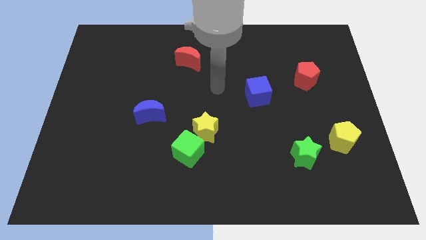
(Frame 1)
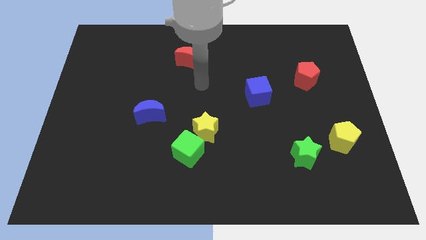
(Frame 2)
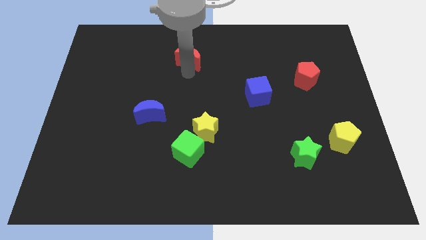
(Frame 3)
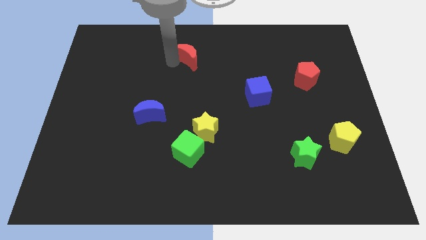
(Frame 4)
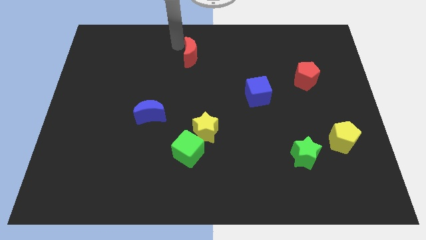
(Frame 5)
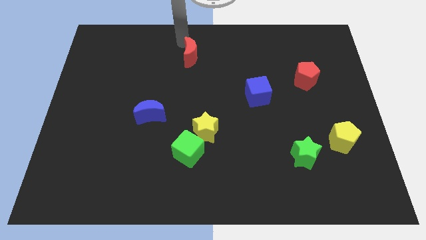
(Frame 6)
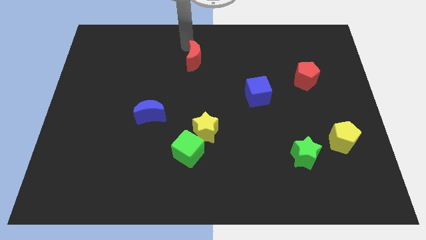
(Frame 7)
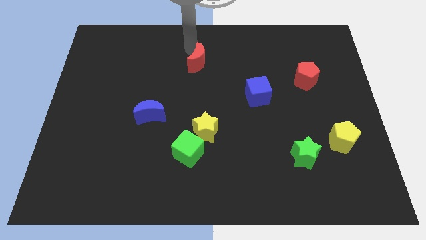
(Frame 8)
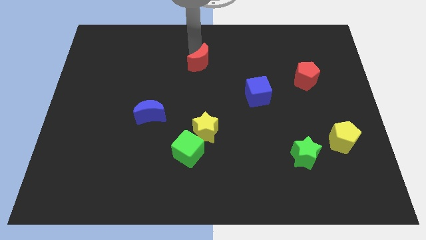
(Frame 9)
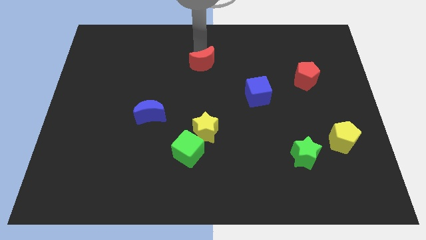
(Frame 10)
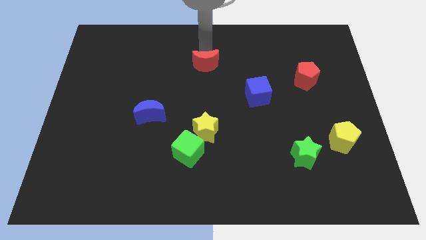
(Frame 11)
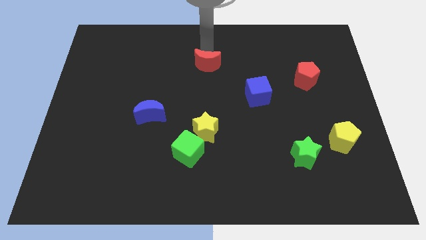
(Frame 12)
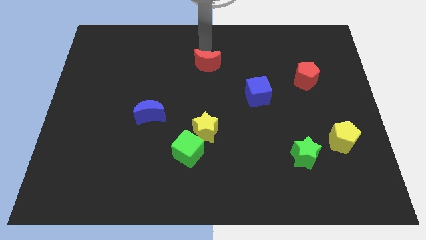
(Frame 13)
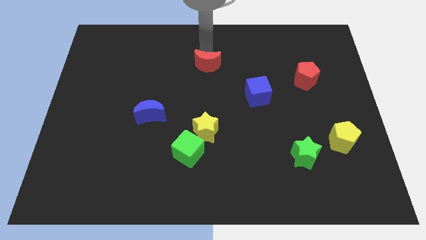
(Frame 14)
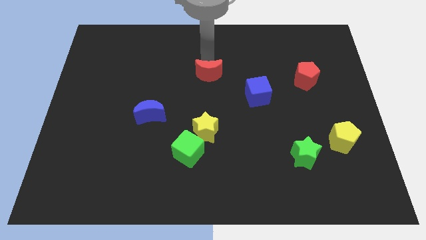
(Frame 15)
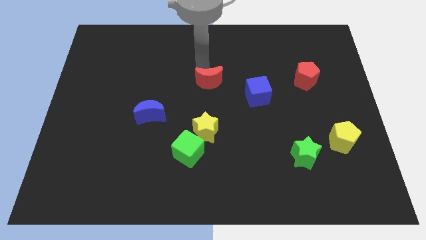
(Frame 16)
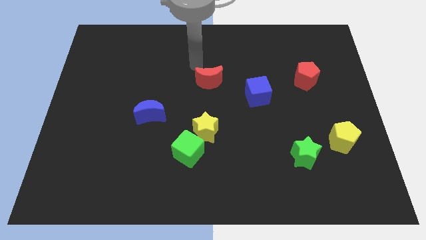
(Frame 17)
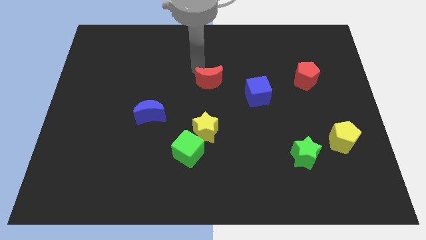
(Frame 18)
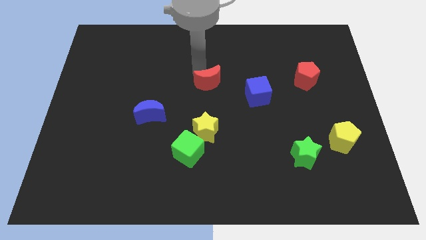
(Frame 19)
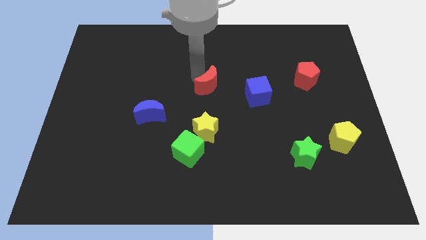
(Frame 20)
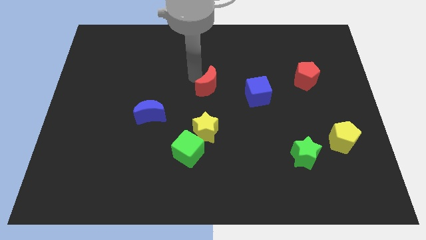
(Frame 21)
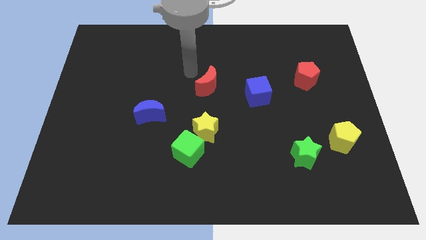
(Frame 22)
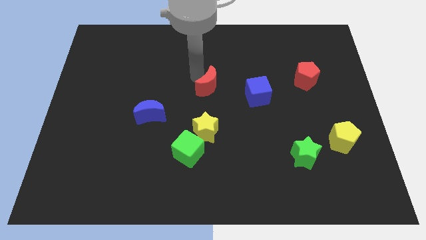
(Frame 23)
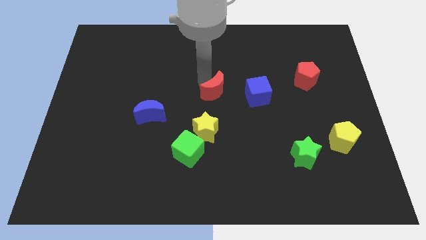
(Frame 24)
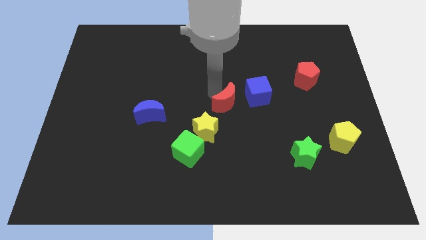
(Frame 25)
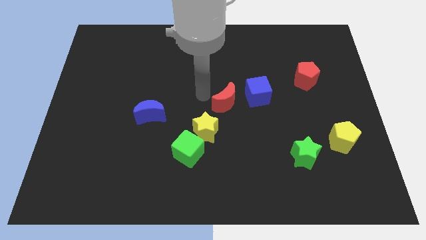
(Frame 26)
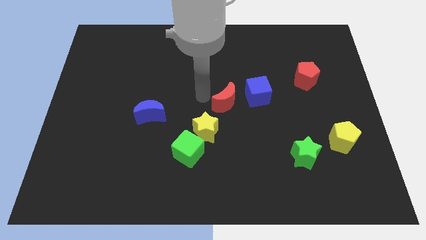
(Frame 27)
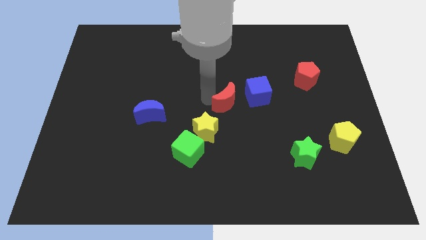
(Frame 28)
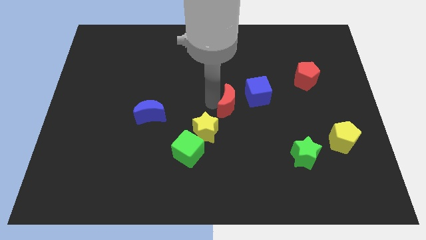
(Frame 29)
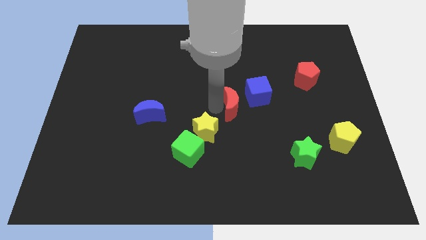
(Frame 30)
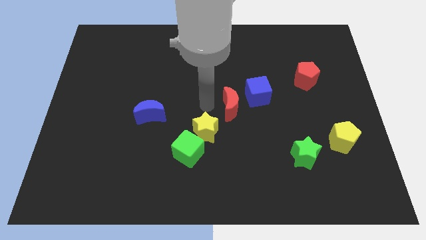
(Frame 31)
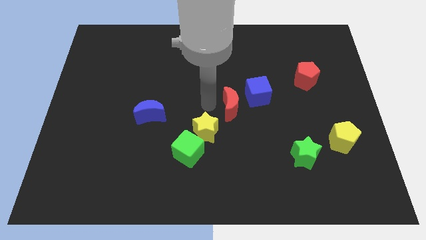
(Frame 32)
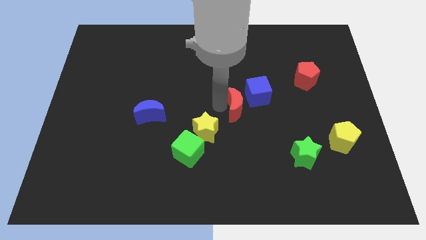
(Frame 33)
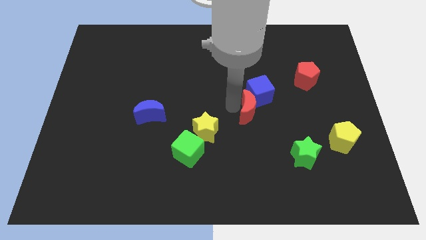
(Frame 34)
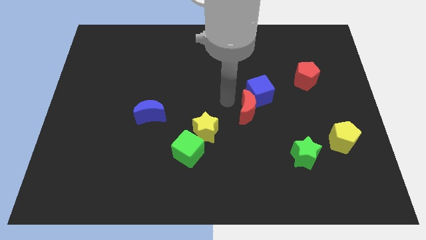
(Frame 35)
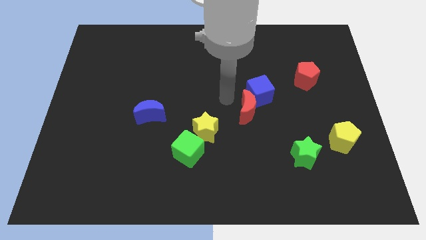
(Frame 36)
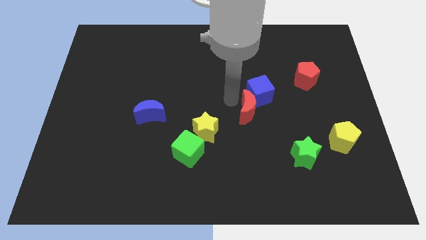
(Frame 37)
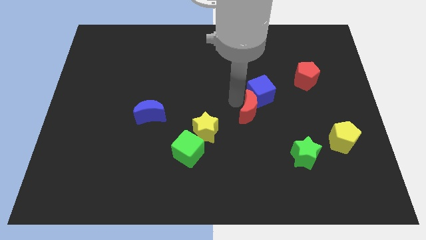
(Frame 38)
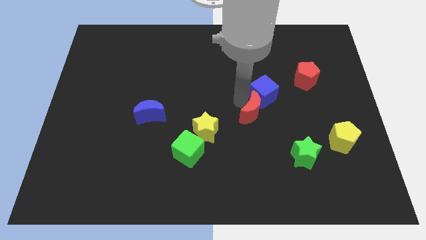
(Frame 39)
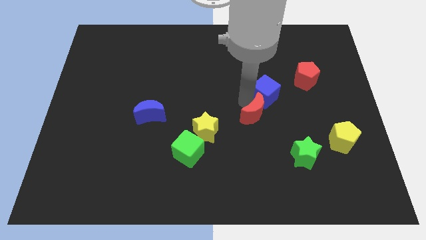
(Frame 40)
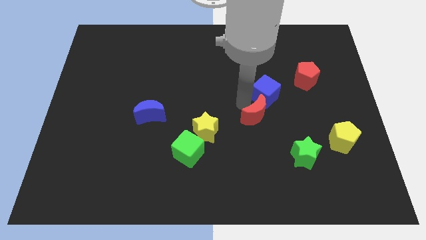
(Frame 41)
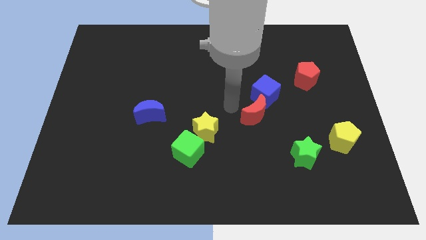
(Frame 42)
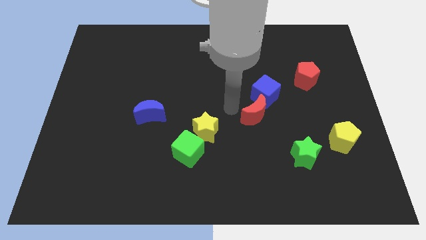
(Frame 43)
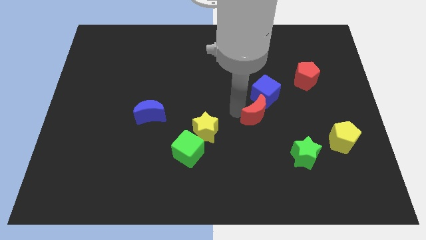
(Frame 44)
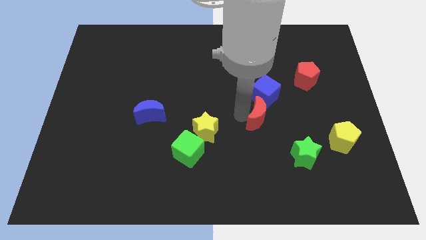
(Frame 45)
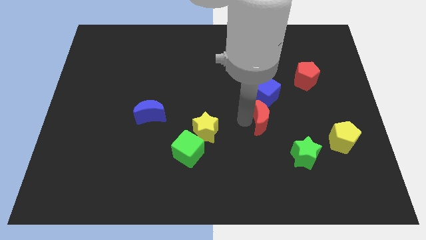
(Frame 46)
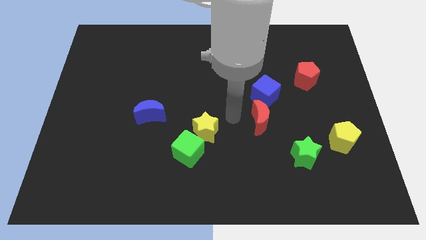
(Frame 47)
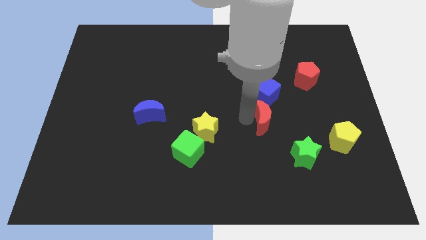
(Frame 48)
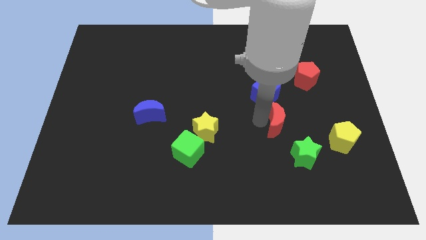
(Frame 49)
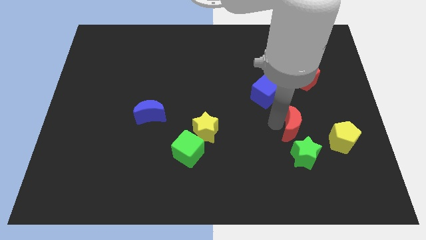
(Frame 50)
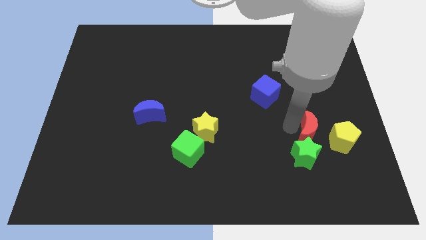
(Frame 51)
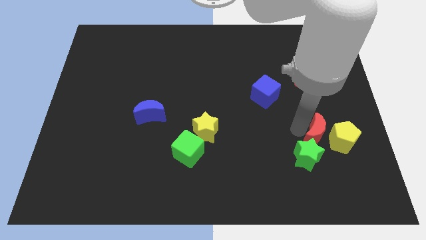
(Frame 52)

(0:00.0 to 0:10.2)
slide the red moon next to the yellow pentagon

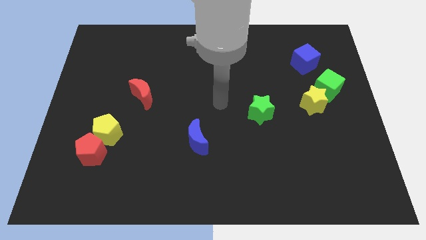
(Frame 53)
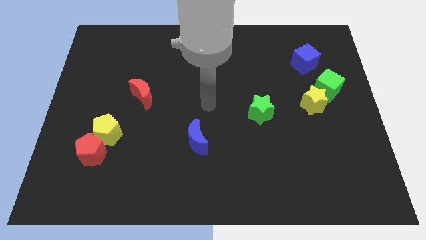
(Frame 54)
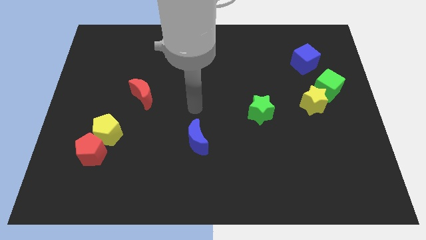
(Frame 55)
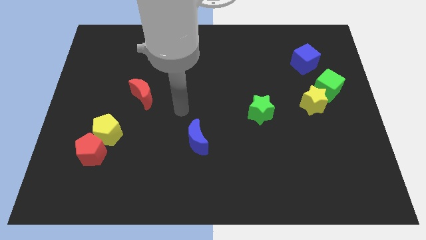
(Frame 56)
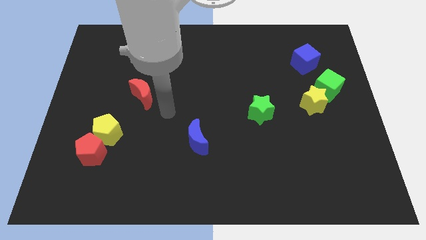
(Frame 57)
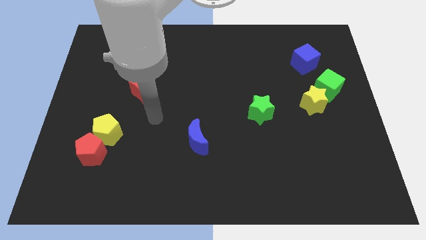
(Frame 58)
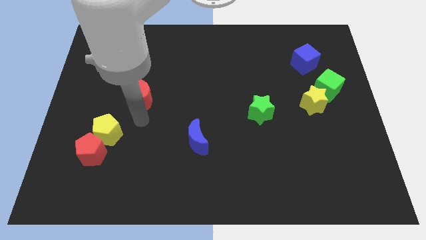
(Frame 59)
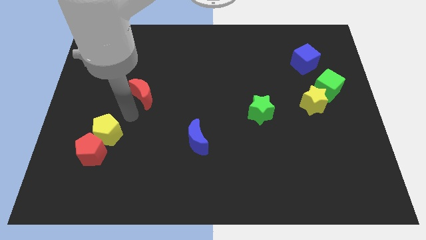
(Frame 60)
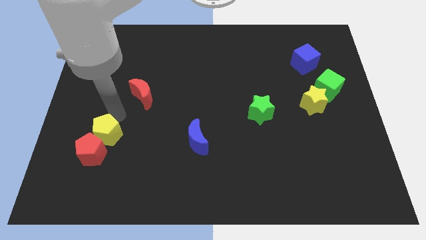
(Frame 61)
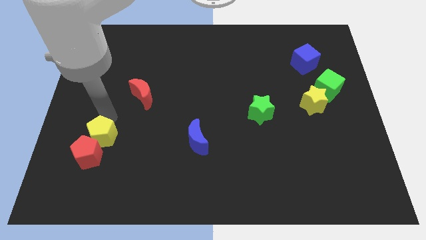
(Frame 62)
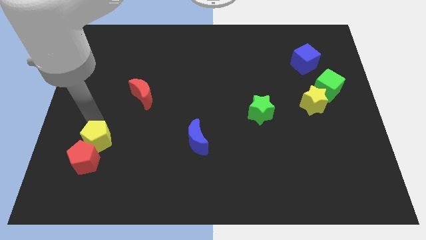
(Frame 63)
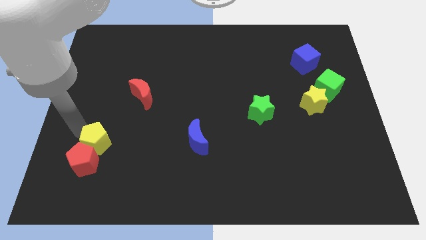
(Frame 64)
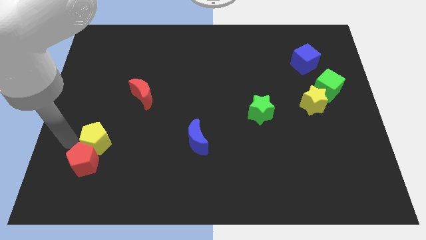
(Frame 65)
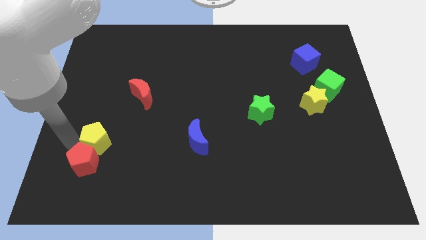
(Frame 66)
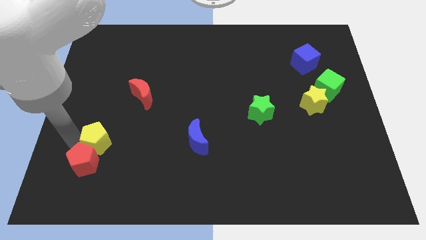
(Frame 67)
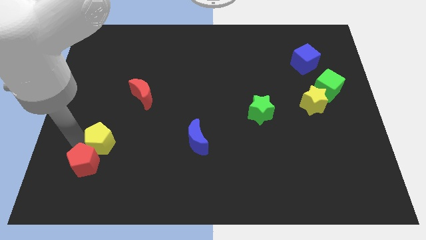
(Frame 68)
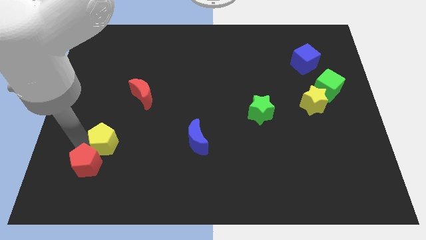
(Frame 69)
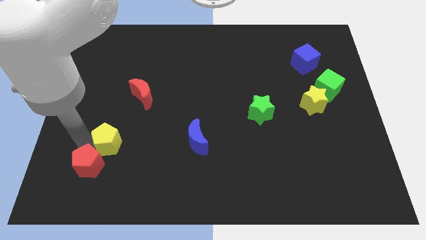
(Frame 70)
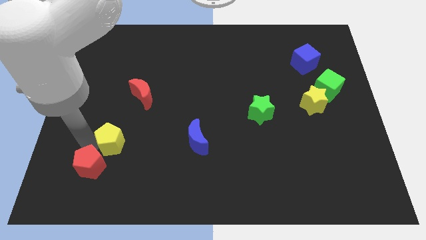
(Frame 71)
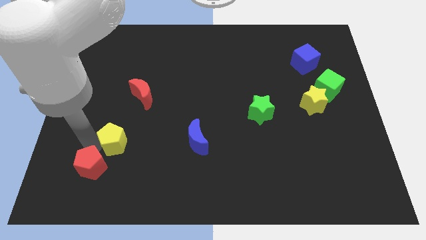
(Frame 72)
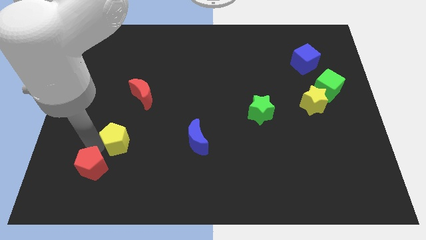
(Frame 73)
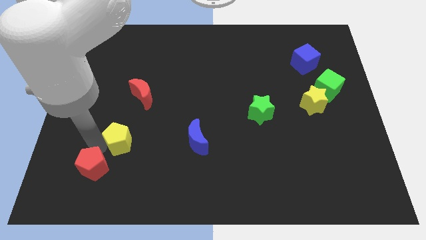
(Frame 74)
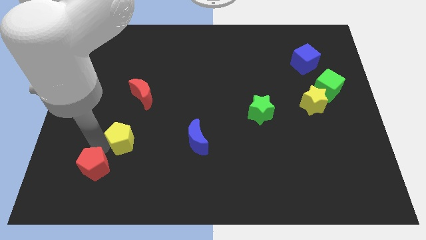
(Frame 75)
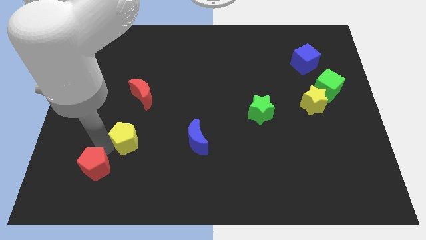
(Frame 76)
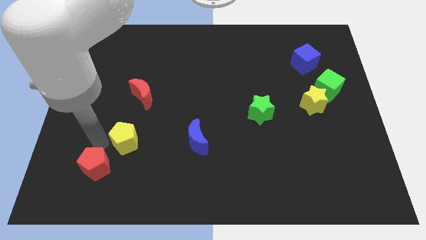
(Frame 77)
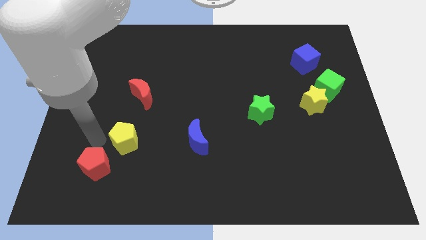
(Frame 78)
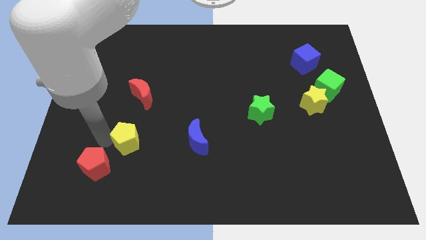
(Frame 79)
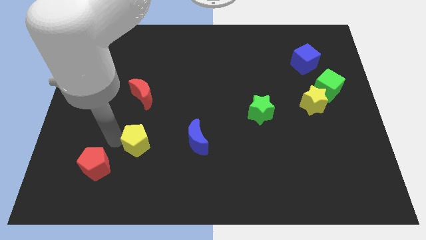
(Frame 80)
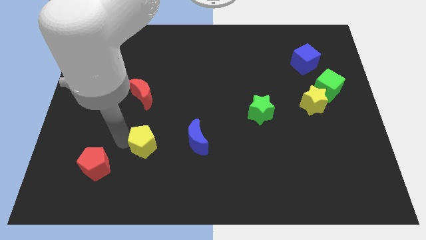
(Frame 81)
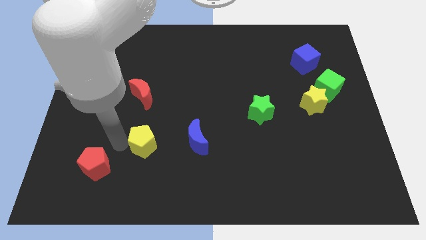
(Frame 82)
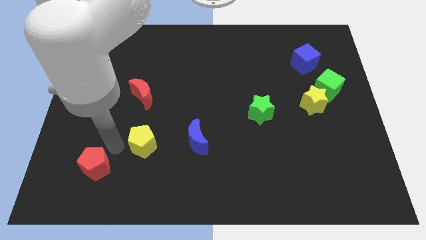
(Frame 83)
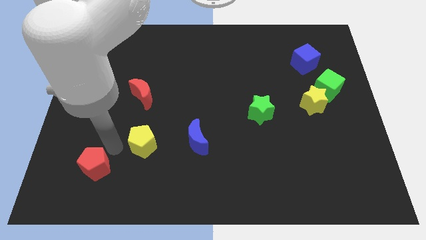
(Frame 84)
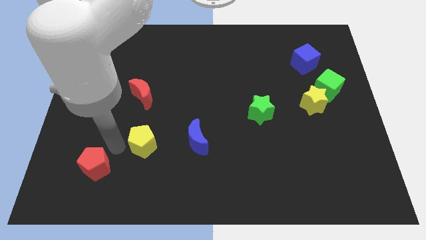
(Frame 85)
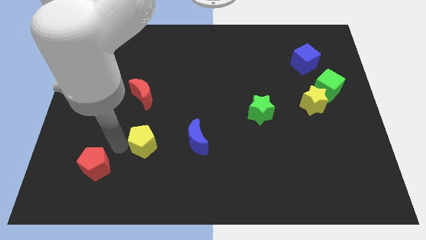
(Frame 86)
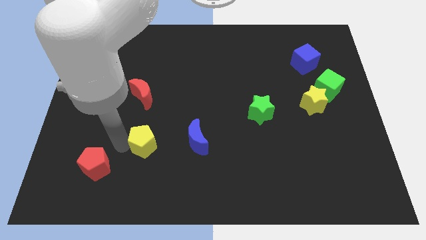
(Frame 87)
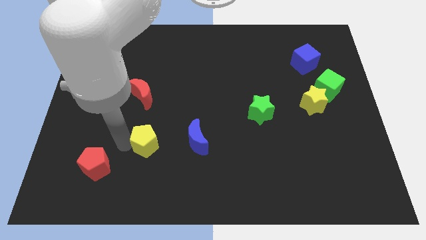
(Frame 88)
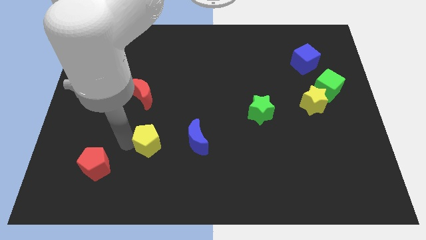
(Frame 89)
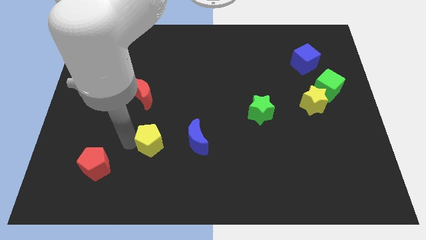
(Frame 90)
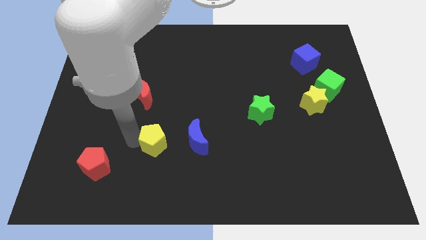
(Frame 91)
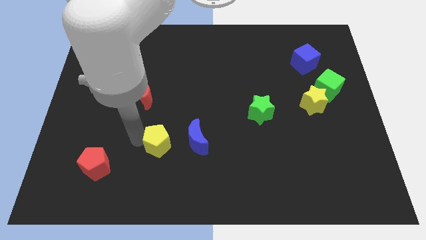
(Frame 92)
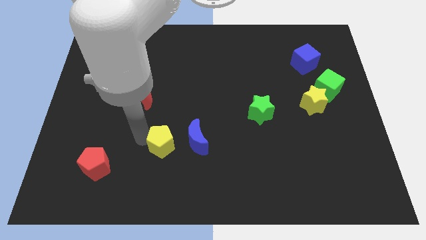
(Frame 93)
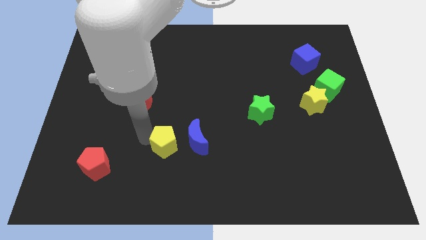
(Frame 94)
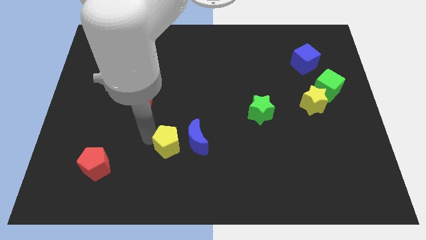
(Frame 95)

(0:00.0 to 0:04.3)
slide the yellow pentagon towards the blue moon
